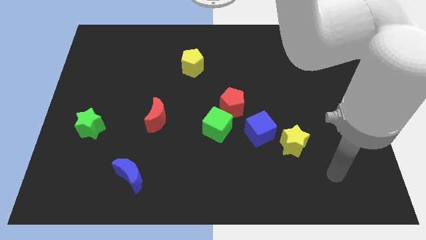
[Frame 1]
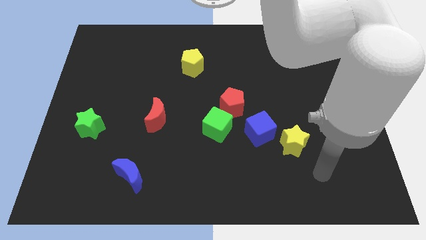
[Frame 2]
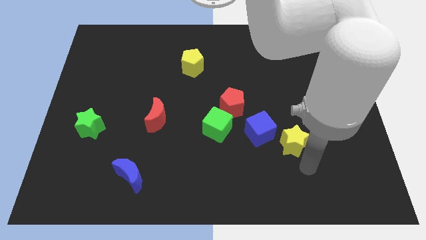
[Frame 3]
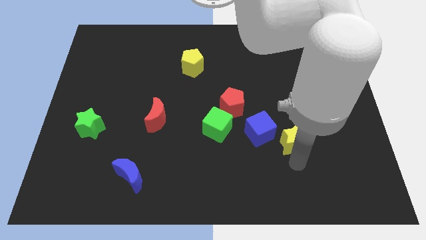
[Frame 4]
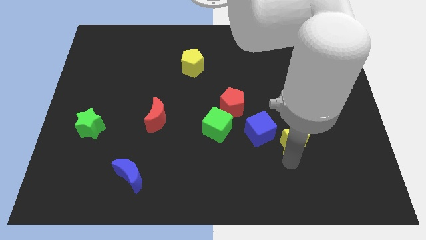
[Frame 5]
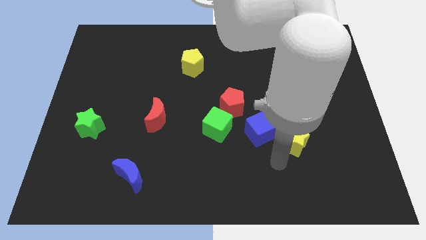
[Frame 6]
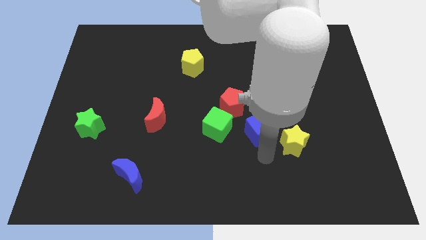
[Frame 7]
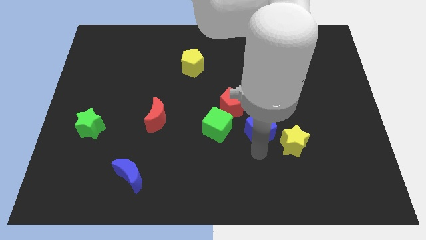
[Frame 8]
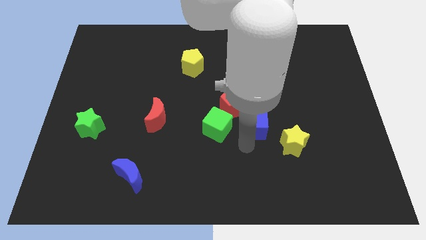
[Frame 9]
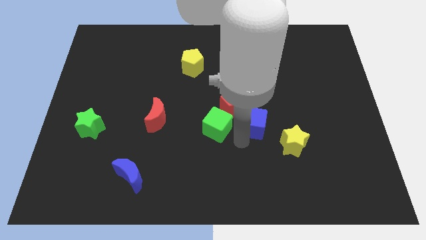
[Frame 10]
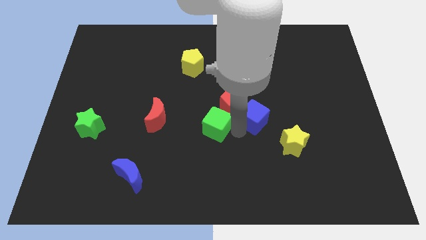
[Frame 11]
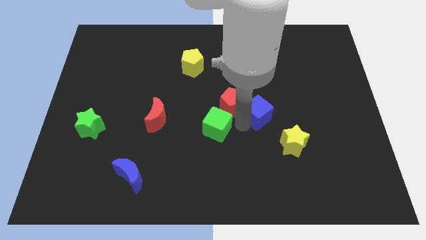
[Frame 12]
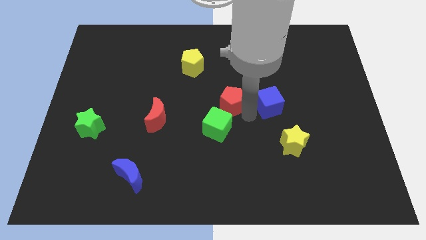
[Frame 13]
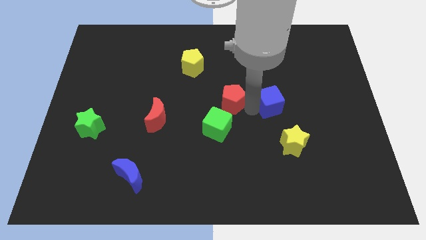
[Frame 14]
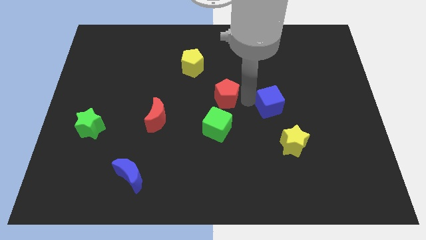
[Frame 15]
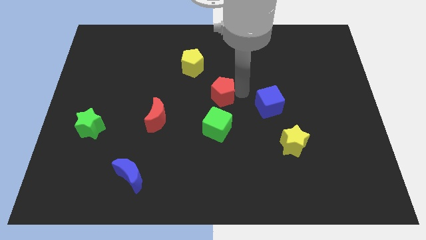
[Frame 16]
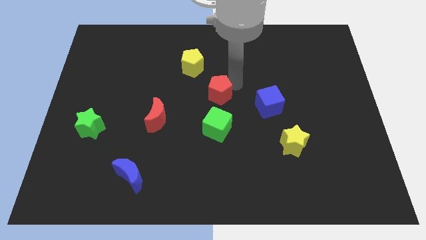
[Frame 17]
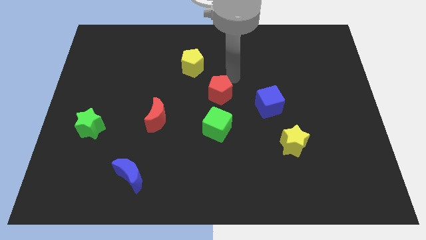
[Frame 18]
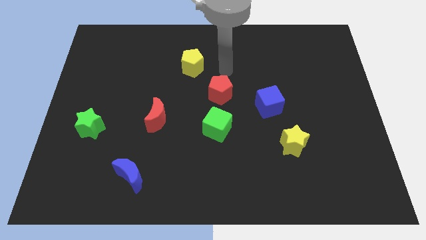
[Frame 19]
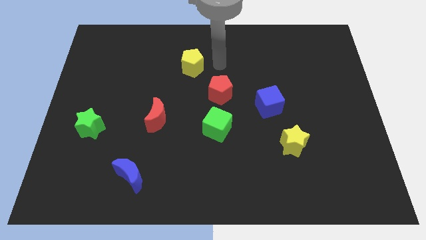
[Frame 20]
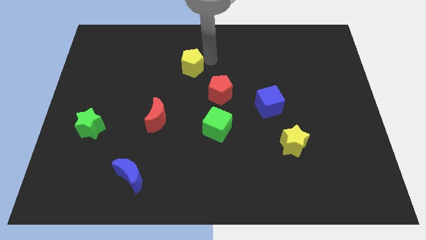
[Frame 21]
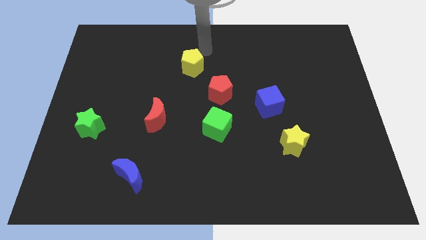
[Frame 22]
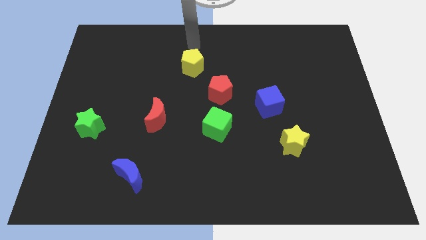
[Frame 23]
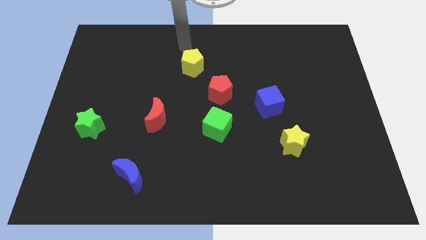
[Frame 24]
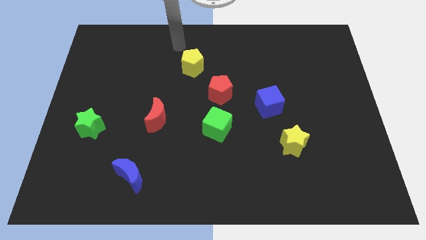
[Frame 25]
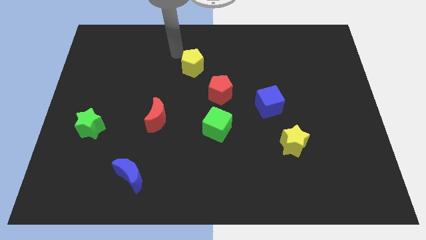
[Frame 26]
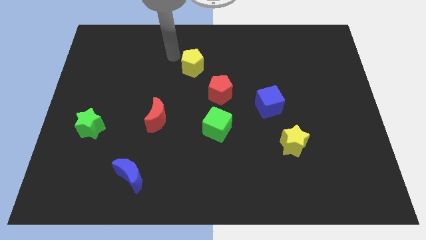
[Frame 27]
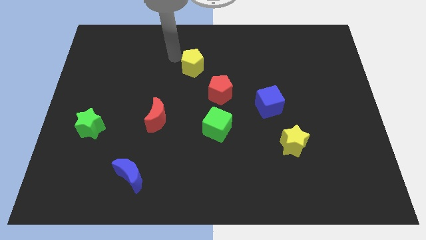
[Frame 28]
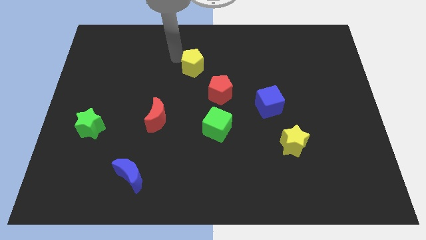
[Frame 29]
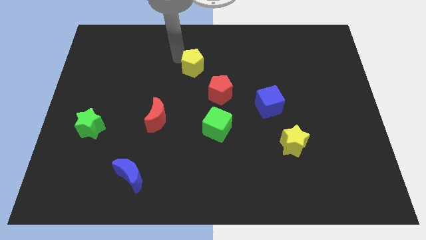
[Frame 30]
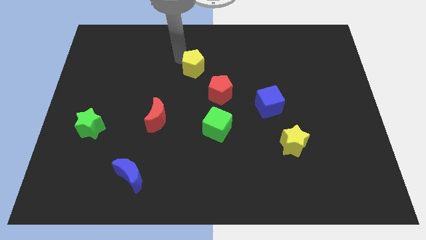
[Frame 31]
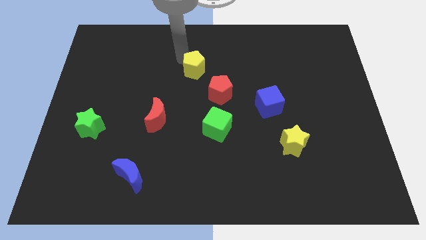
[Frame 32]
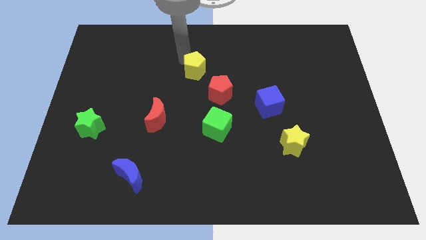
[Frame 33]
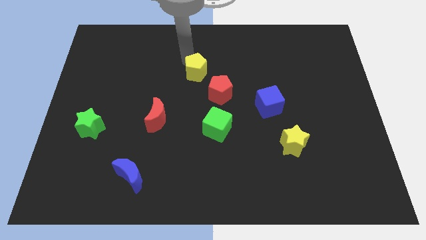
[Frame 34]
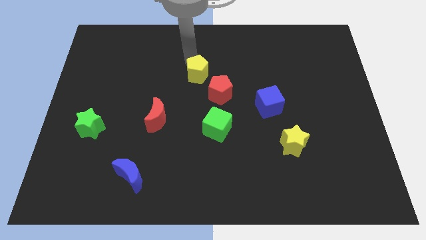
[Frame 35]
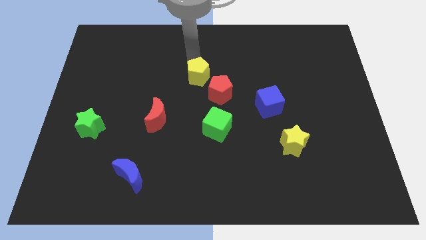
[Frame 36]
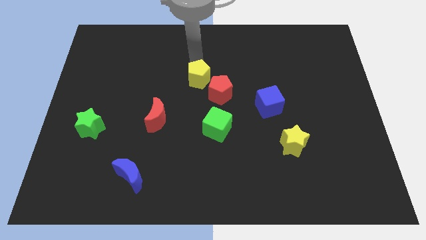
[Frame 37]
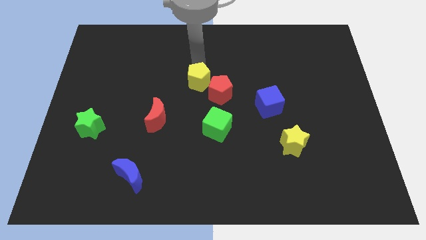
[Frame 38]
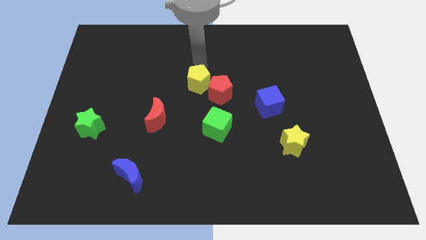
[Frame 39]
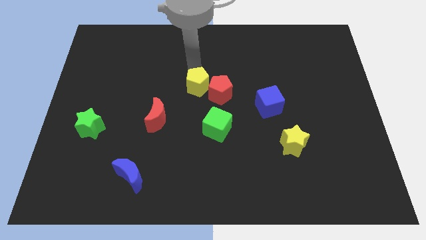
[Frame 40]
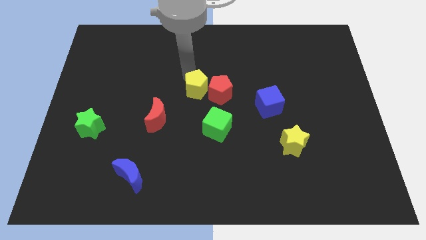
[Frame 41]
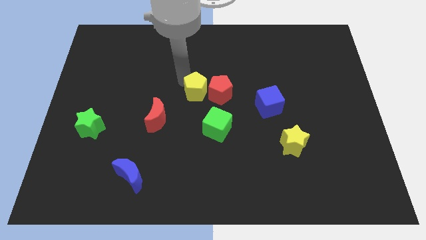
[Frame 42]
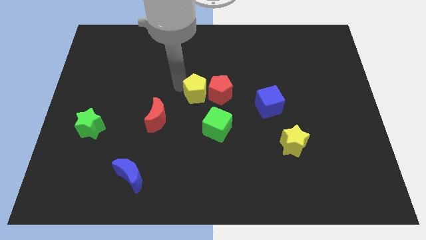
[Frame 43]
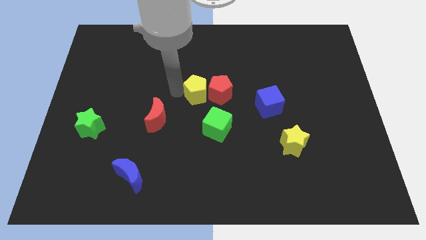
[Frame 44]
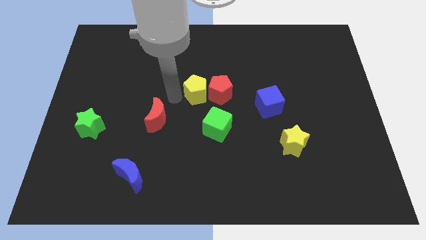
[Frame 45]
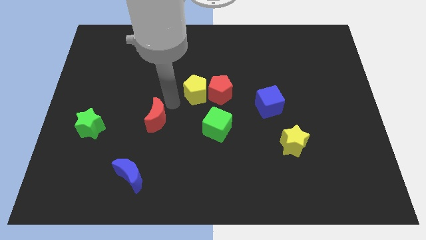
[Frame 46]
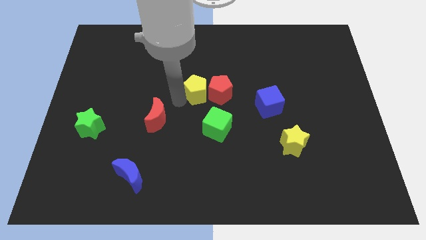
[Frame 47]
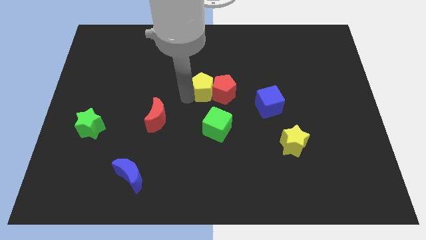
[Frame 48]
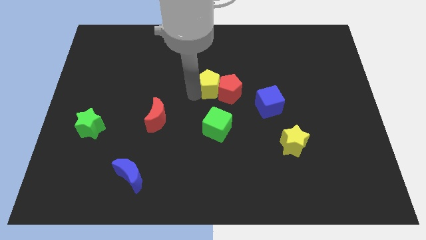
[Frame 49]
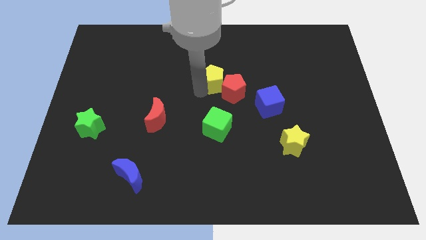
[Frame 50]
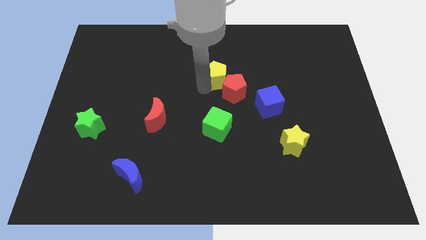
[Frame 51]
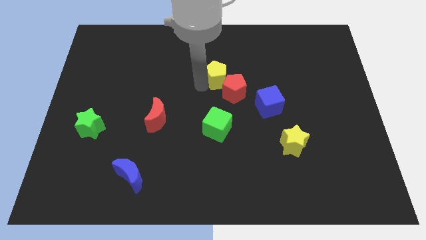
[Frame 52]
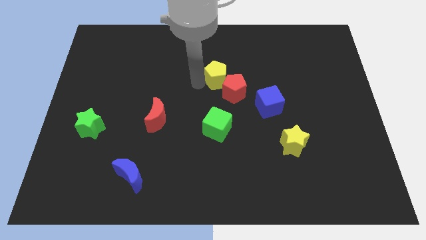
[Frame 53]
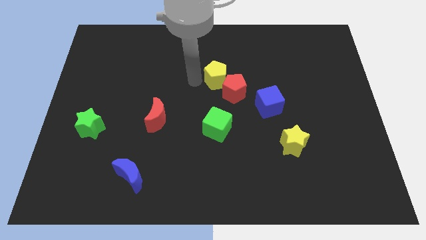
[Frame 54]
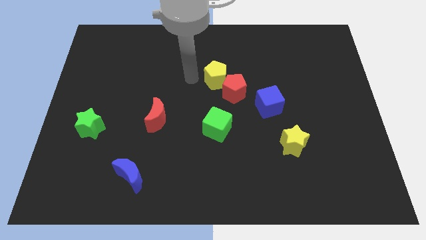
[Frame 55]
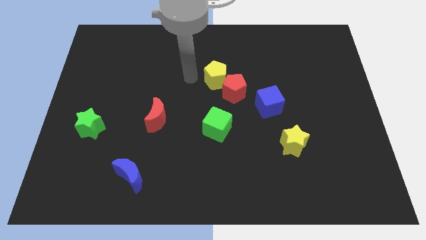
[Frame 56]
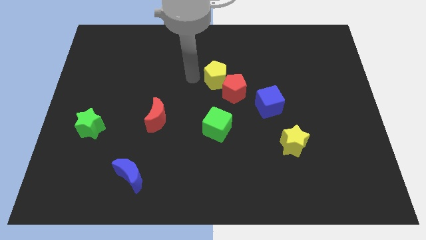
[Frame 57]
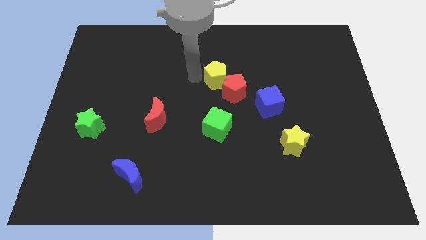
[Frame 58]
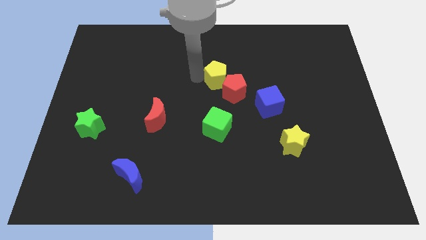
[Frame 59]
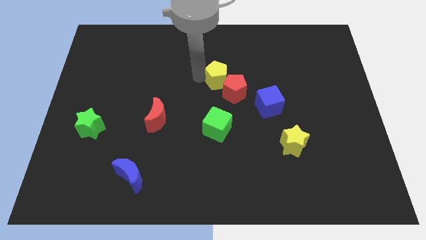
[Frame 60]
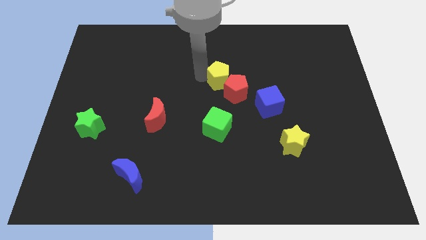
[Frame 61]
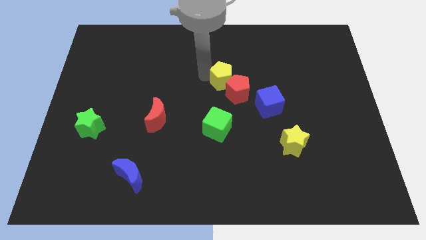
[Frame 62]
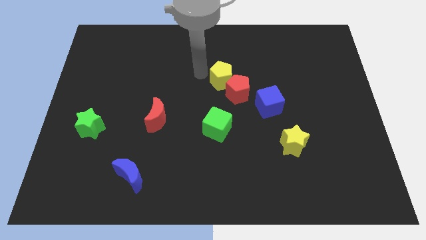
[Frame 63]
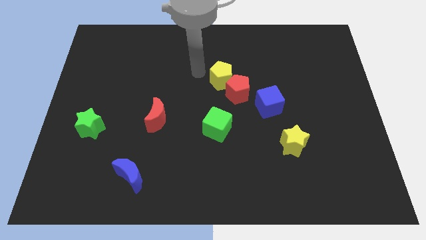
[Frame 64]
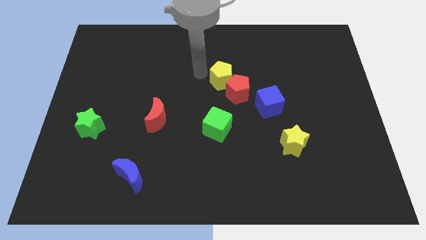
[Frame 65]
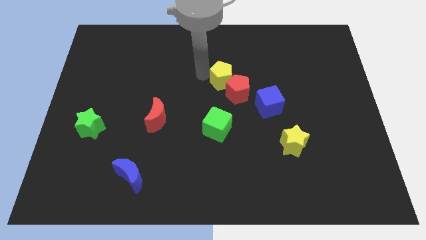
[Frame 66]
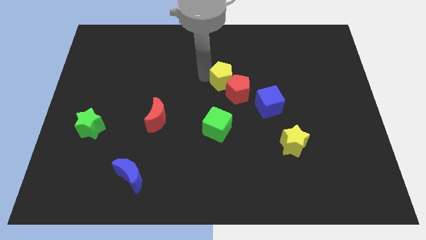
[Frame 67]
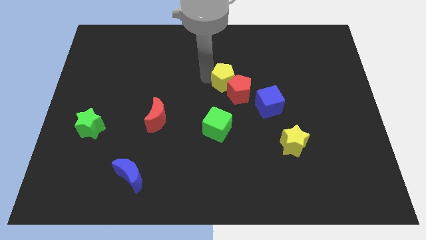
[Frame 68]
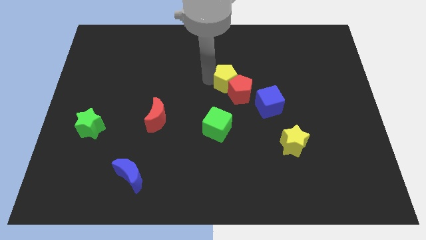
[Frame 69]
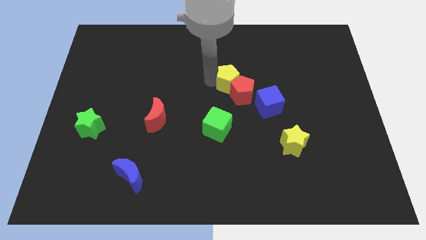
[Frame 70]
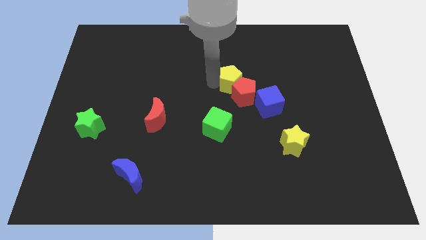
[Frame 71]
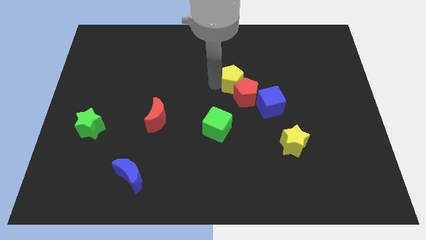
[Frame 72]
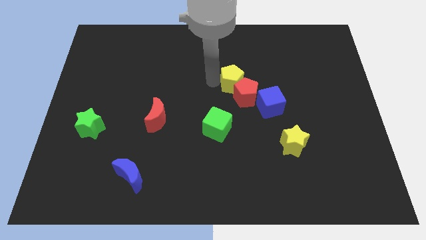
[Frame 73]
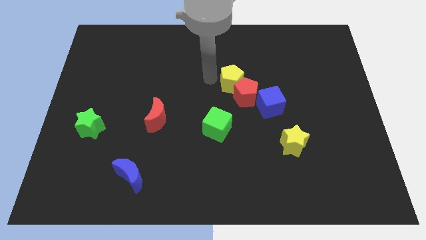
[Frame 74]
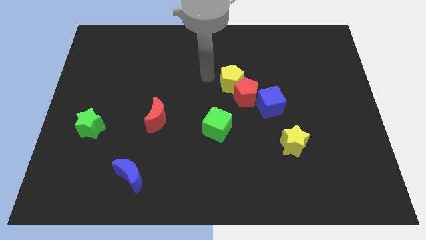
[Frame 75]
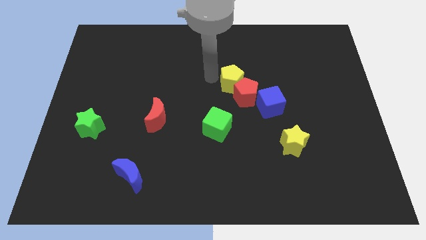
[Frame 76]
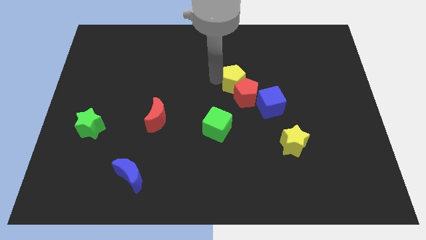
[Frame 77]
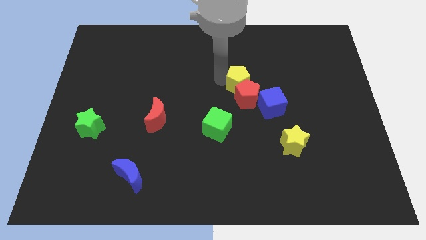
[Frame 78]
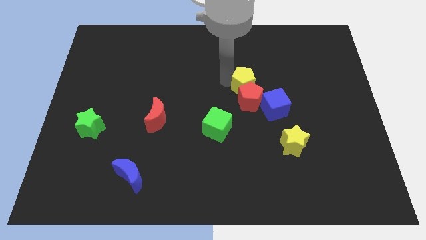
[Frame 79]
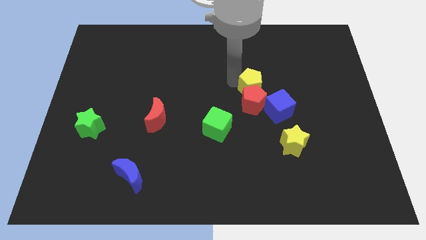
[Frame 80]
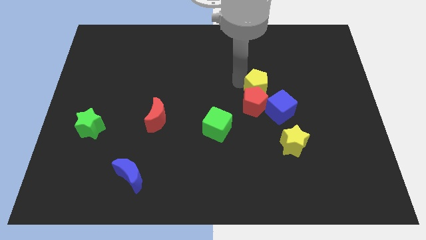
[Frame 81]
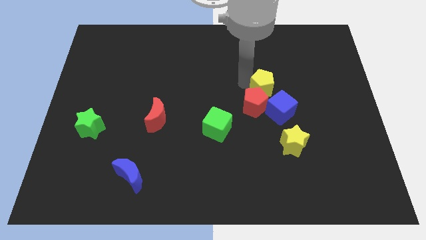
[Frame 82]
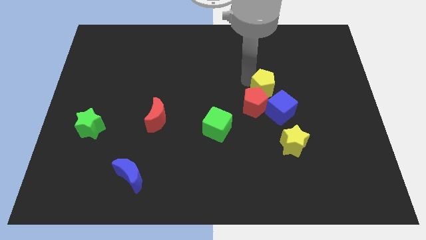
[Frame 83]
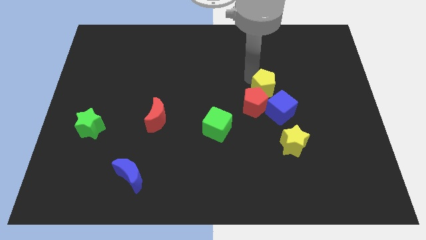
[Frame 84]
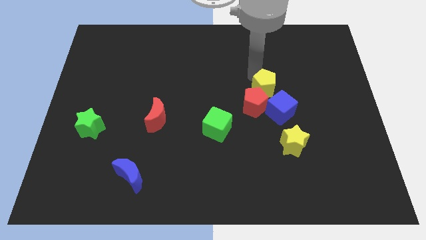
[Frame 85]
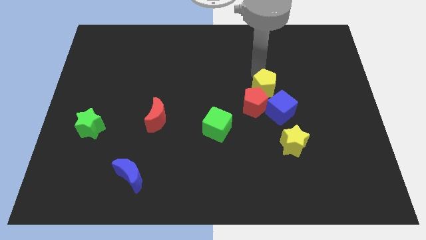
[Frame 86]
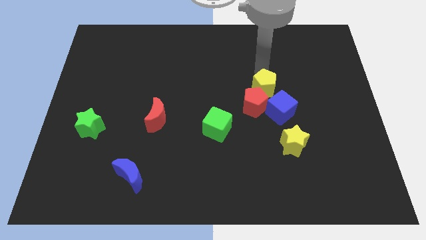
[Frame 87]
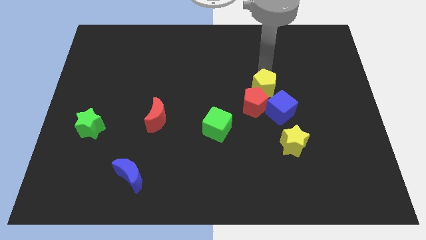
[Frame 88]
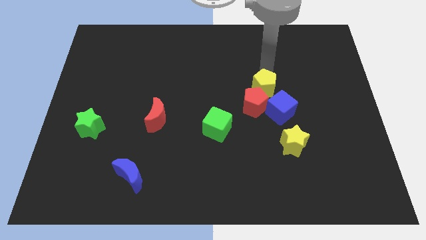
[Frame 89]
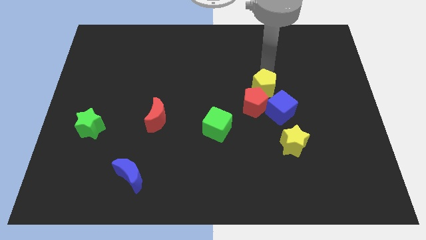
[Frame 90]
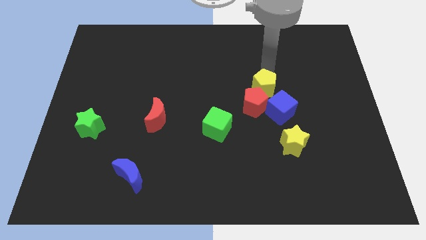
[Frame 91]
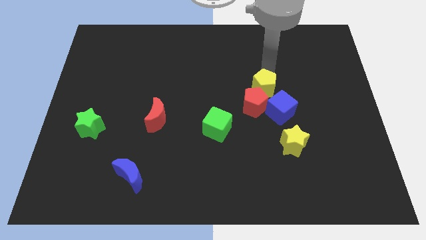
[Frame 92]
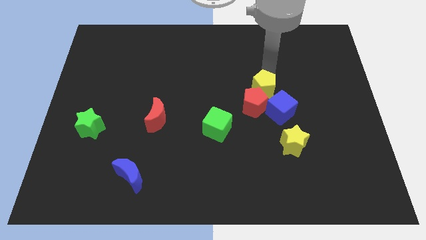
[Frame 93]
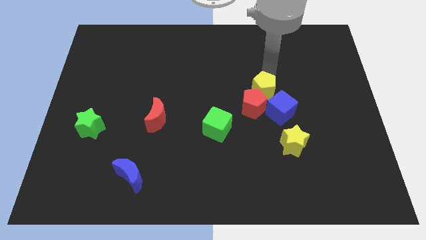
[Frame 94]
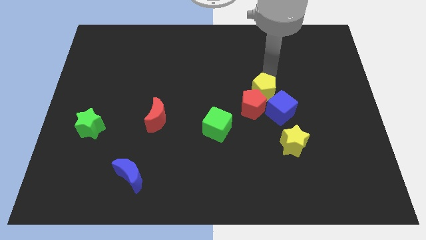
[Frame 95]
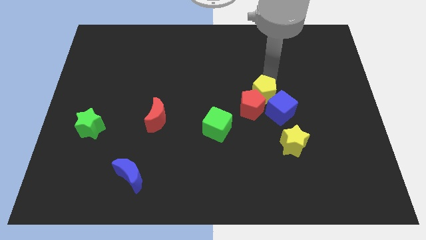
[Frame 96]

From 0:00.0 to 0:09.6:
move the yellow pentagon to the blue cube
